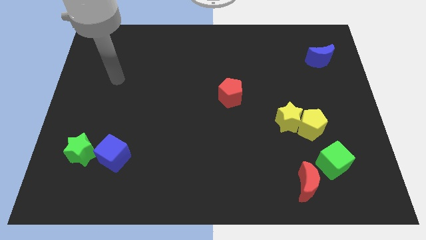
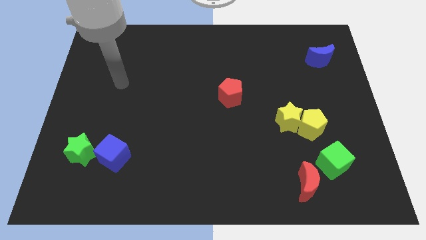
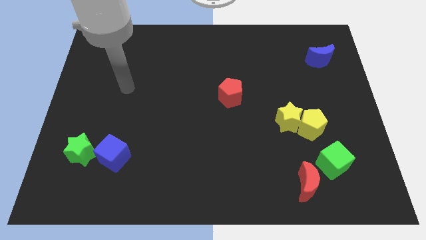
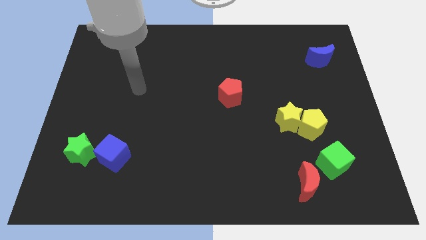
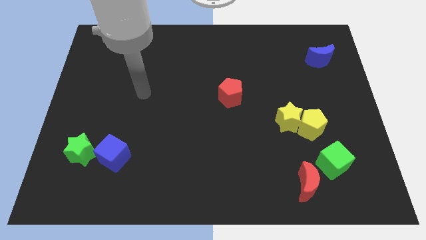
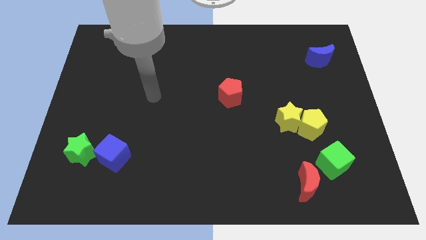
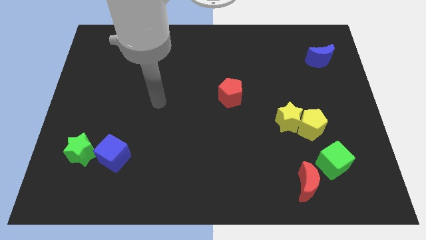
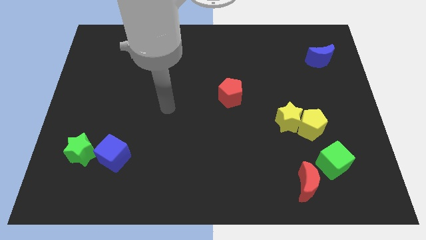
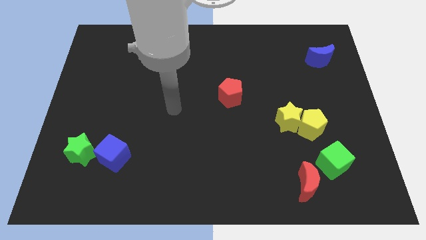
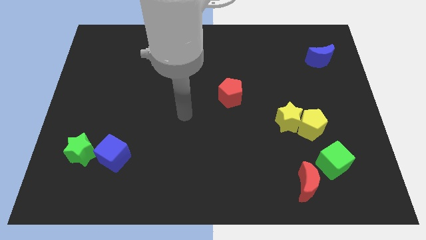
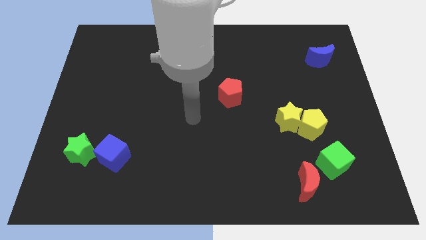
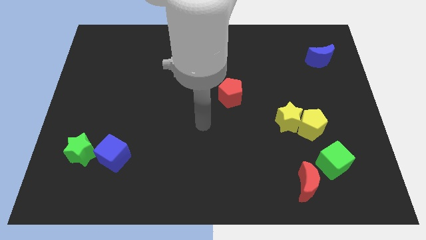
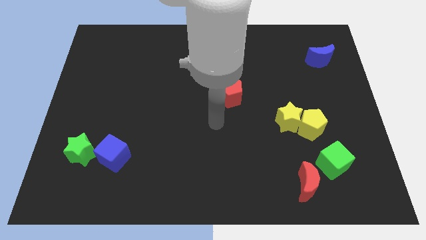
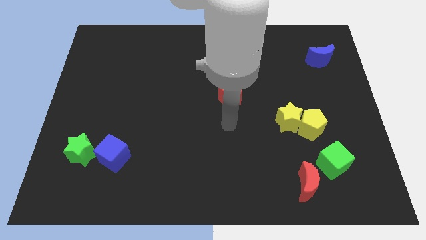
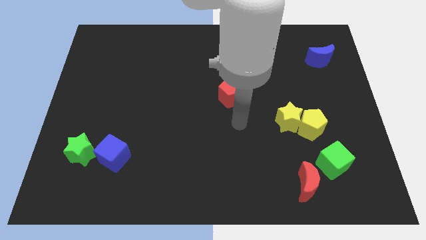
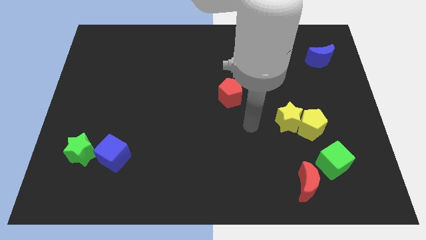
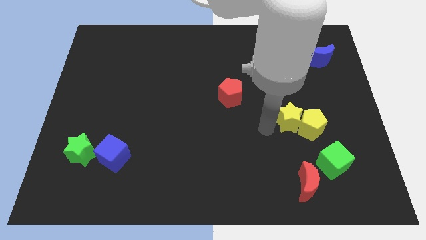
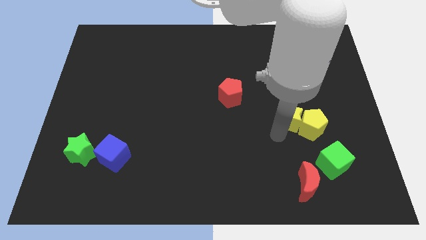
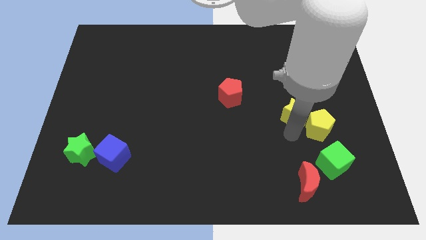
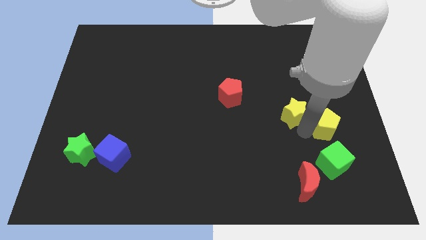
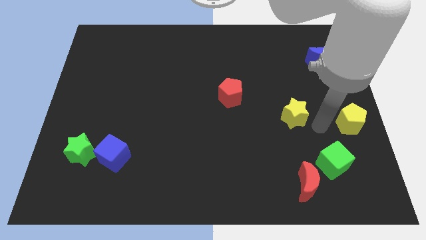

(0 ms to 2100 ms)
move the yellow star away from the yellow pentagon

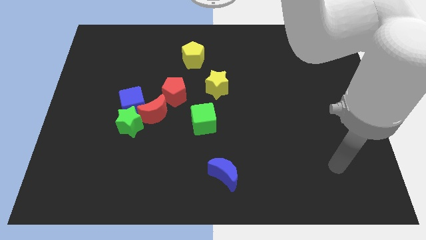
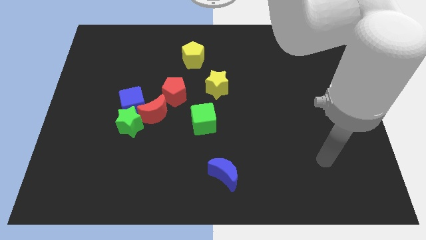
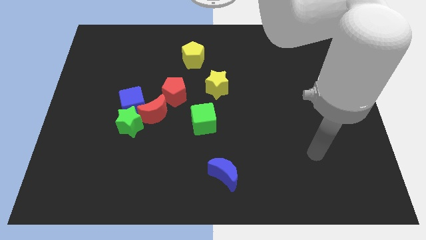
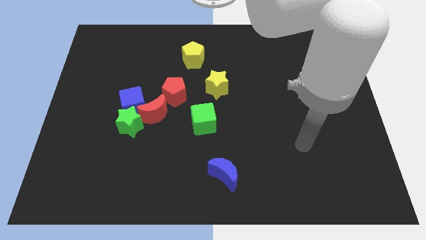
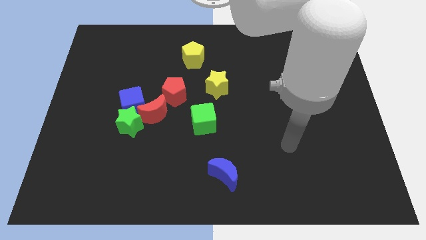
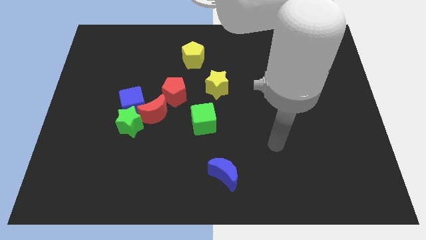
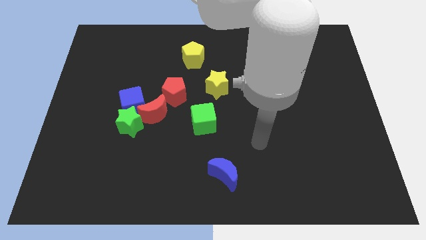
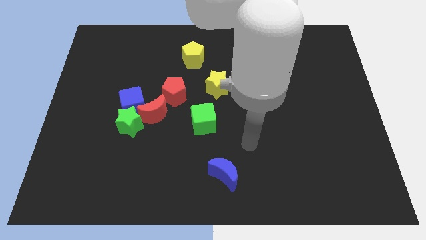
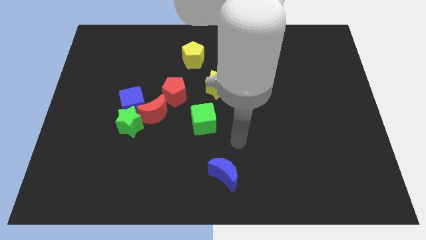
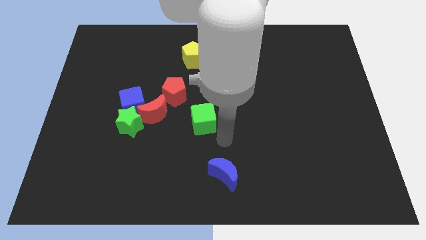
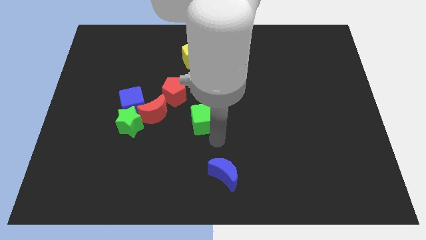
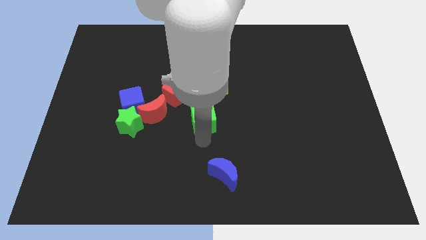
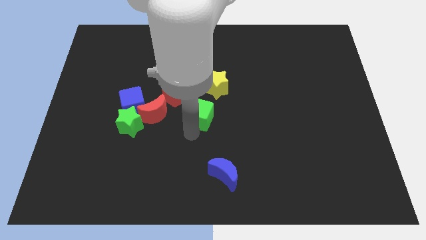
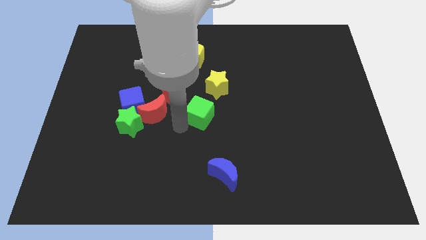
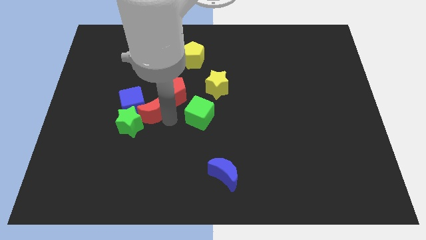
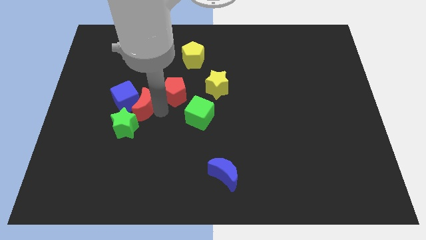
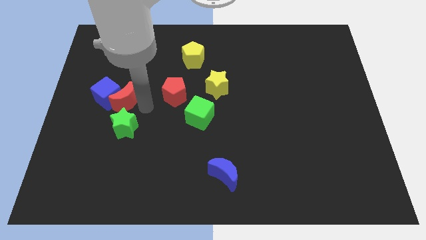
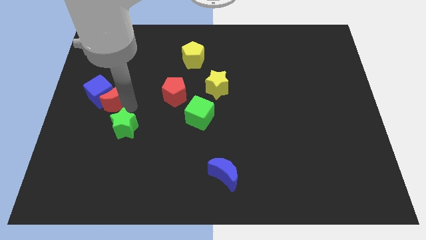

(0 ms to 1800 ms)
separate the green star from the blue cube and red moon

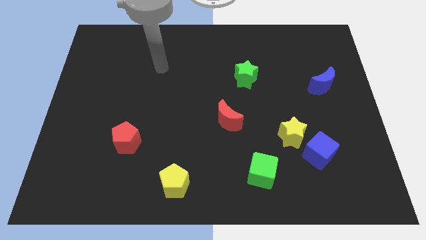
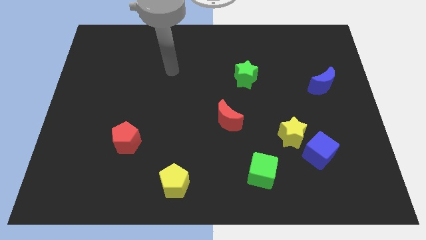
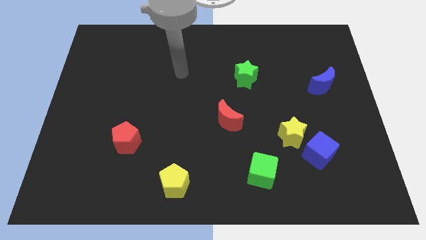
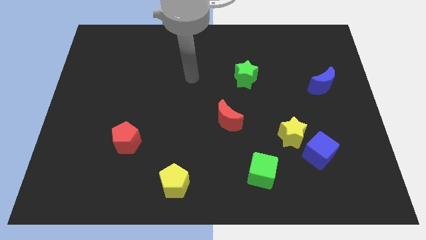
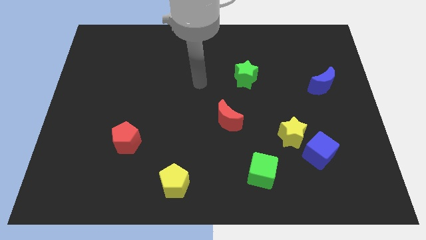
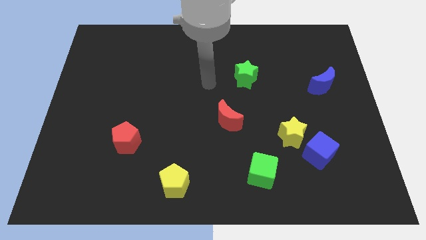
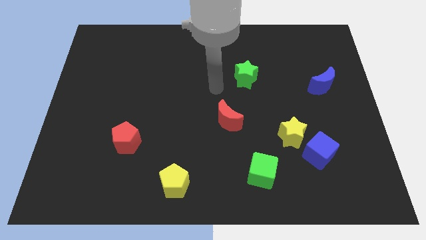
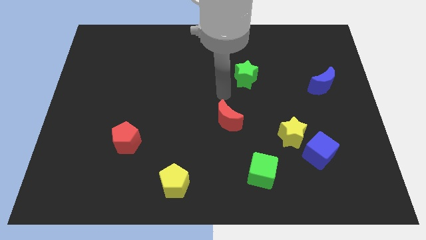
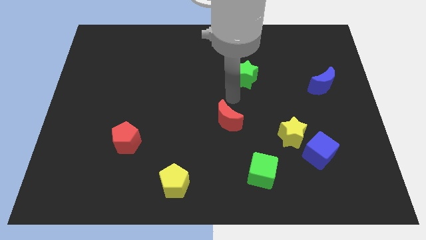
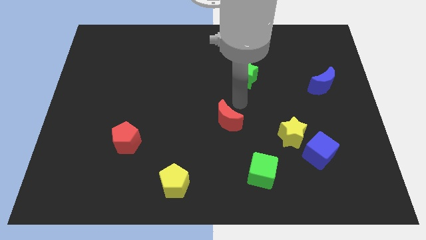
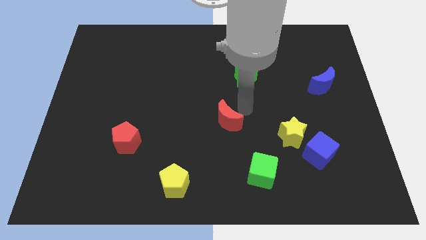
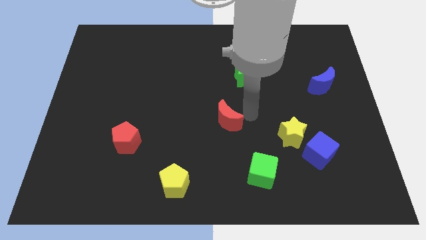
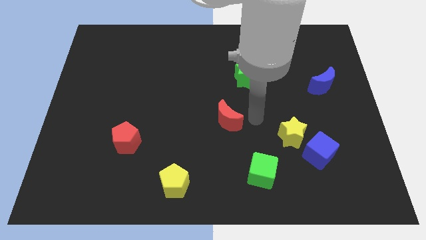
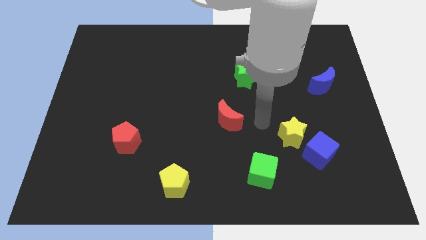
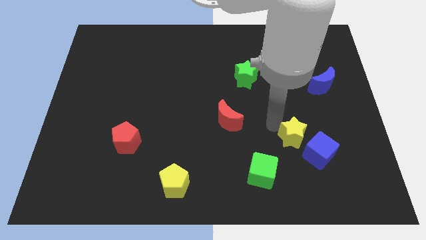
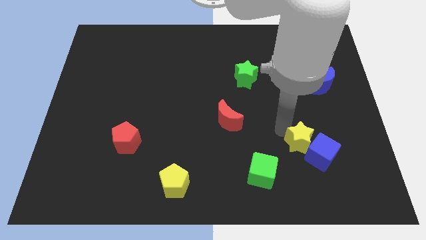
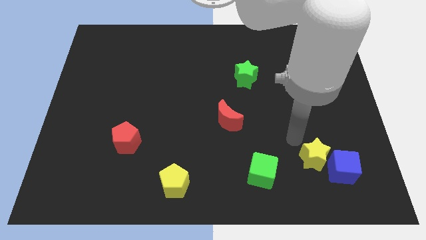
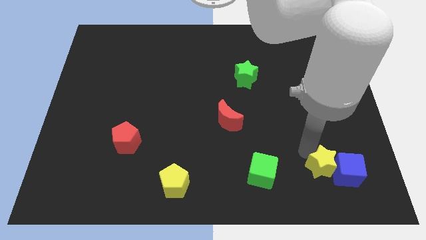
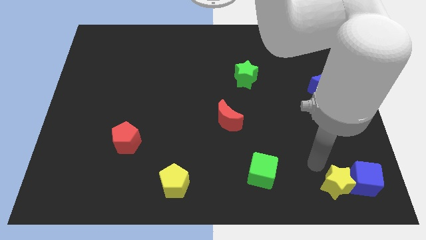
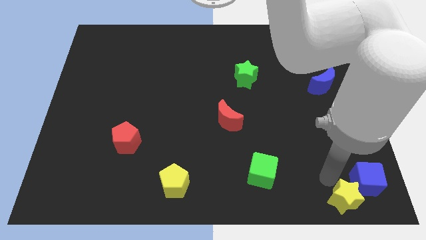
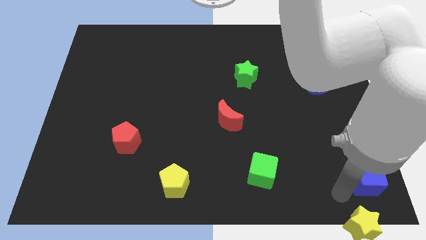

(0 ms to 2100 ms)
pull the blue cube apart from the yellow star

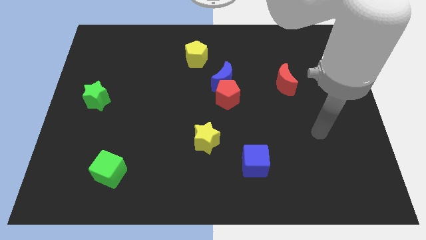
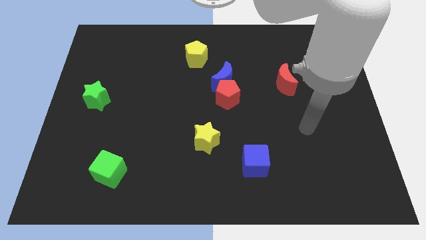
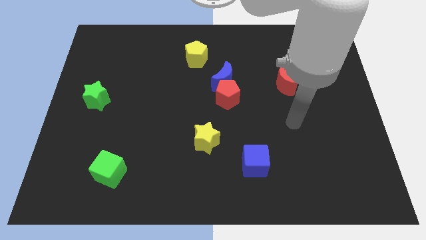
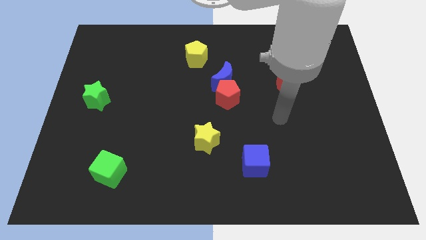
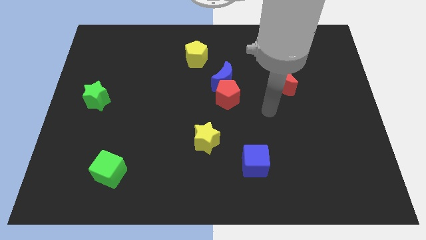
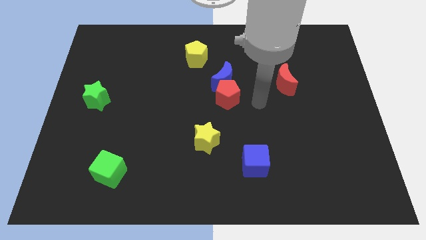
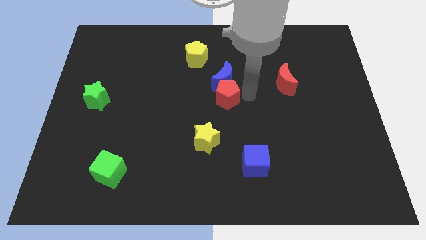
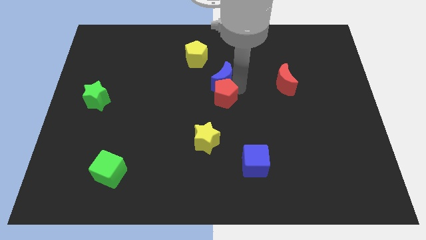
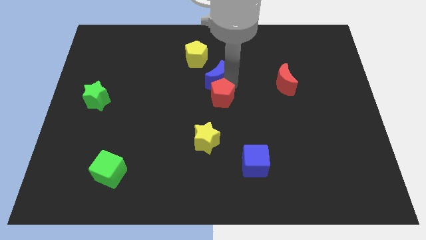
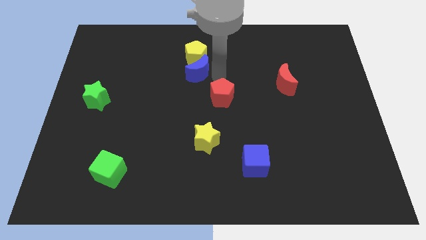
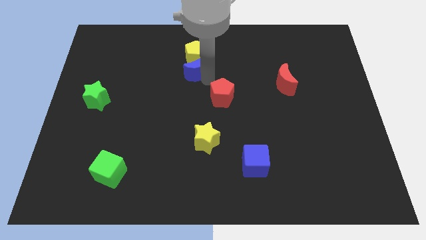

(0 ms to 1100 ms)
pull the red pentagon apart from the blue moon

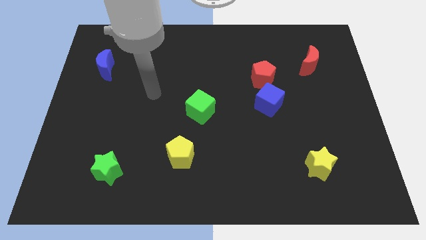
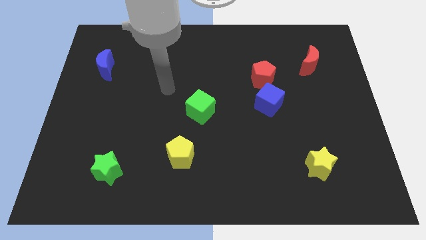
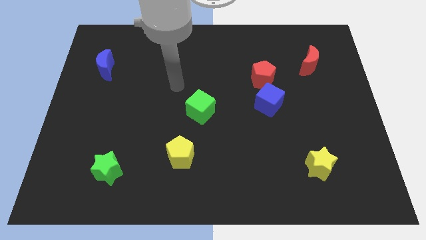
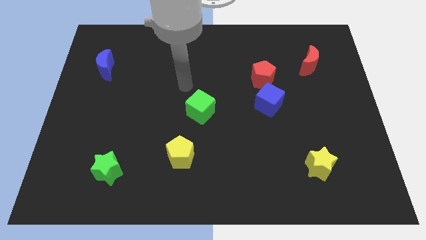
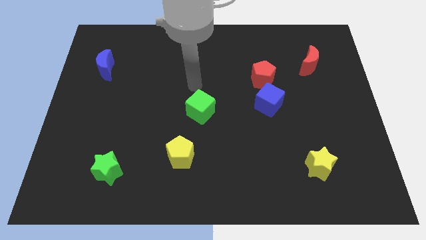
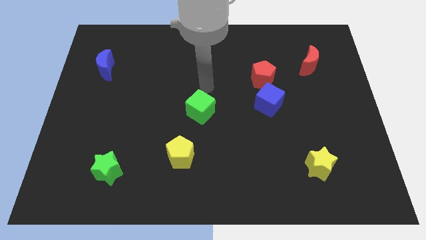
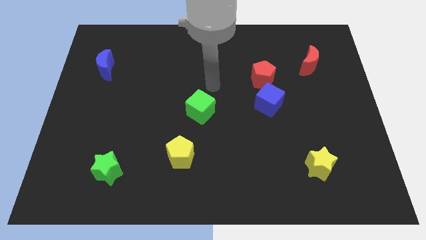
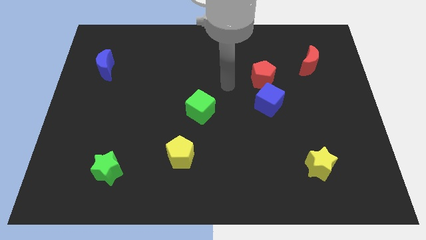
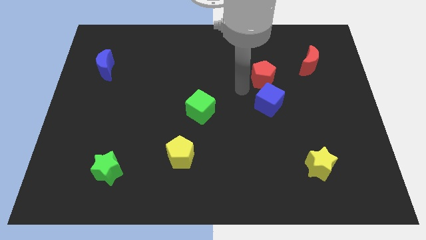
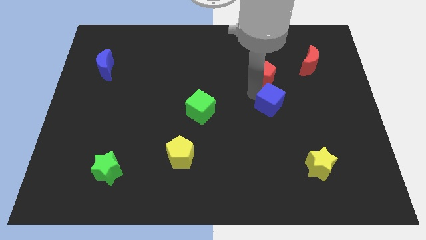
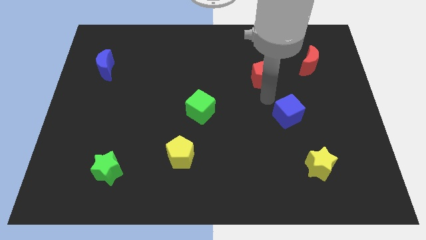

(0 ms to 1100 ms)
separate the red pentagon from the blue cube

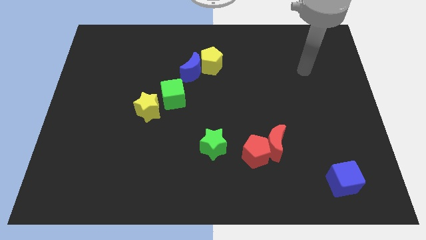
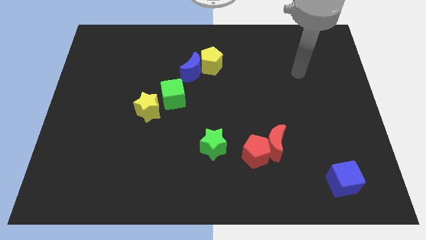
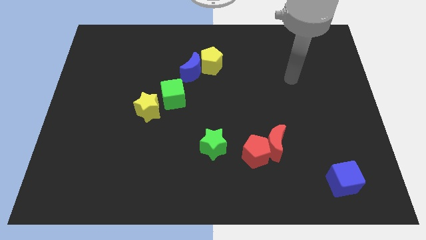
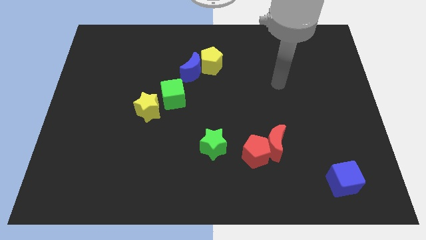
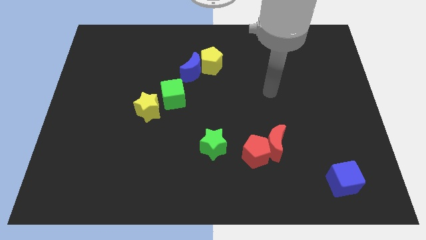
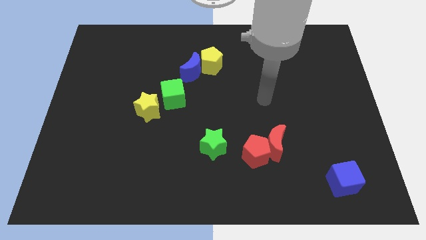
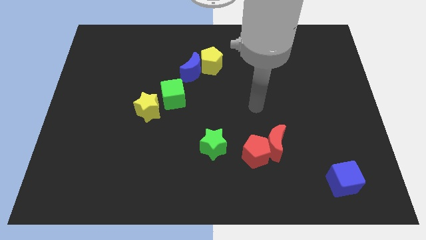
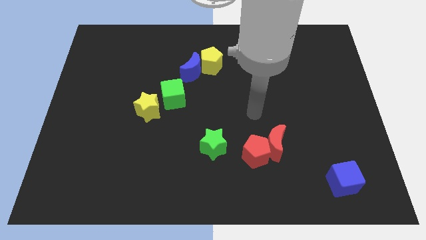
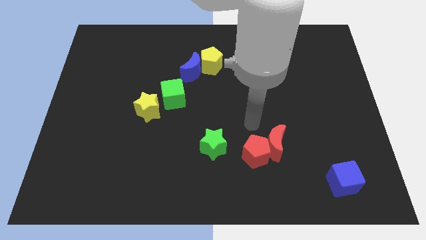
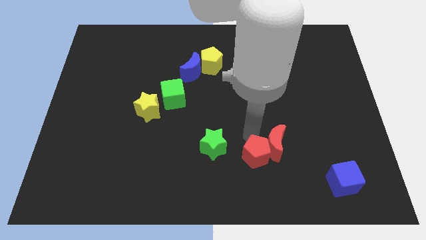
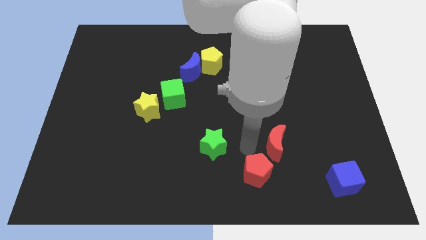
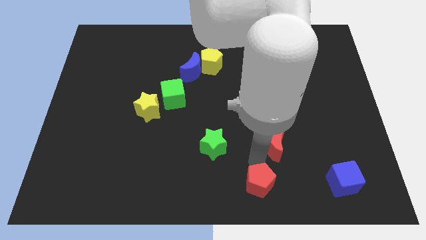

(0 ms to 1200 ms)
pull the red moon apart from the red pentagon

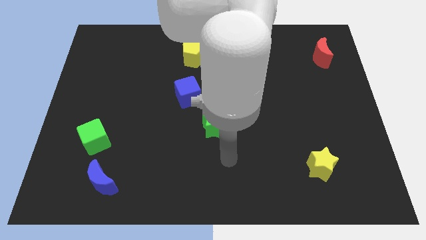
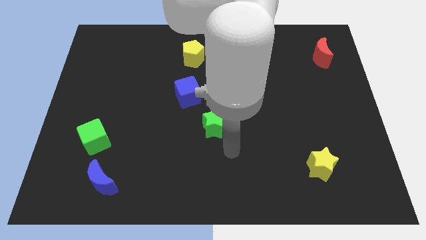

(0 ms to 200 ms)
move the blue cube away from the red pentagon
